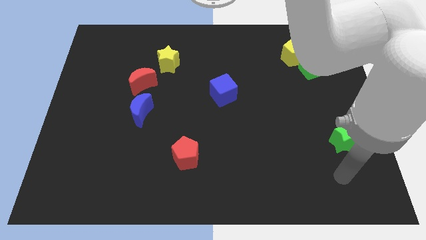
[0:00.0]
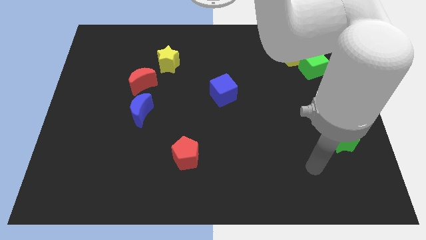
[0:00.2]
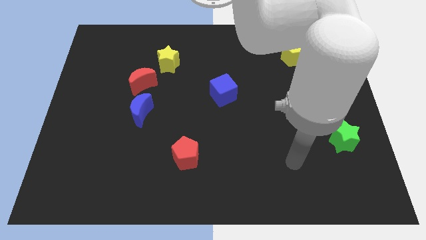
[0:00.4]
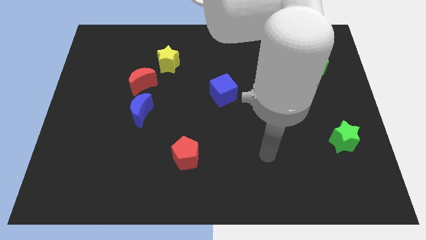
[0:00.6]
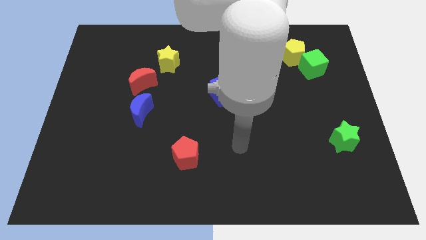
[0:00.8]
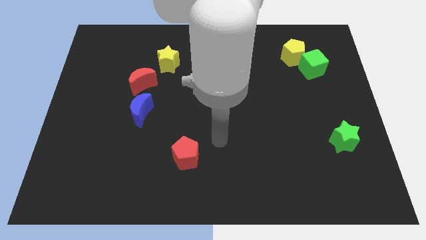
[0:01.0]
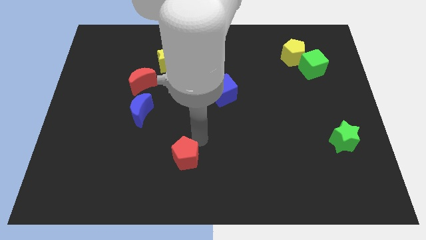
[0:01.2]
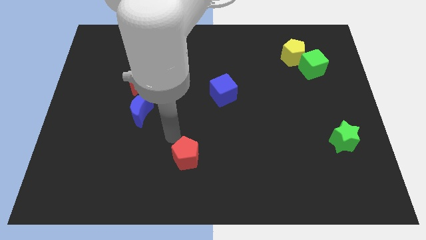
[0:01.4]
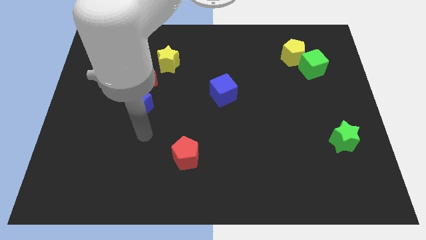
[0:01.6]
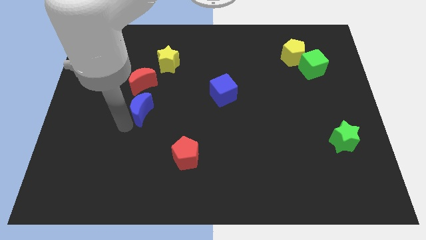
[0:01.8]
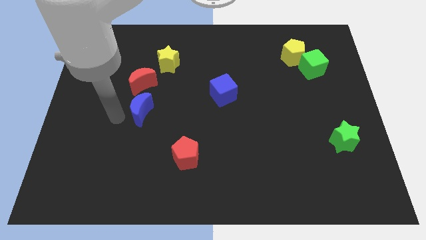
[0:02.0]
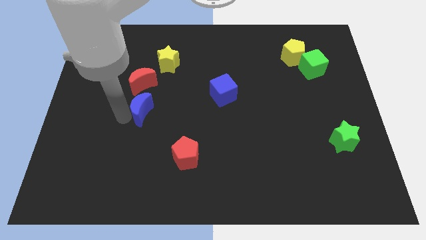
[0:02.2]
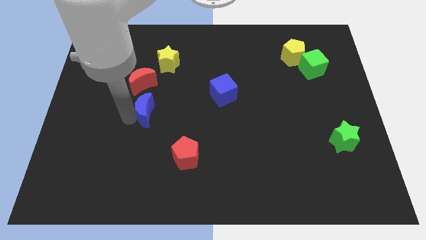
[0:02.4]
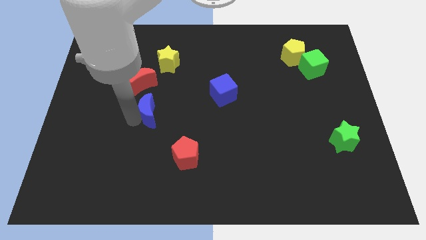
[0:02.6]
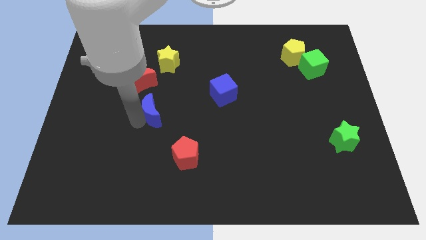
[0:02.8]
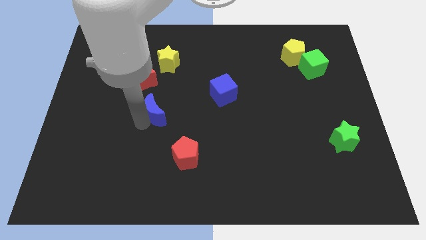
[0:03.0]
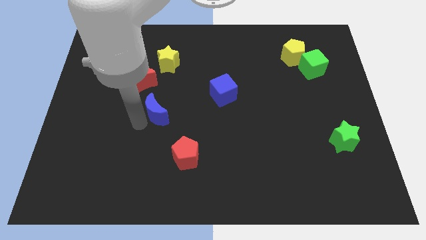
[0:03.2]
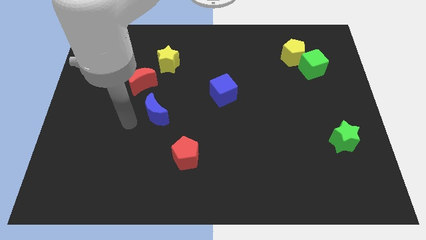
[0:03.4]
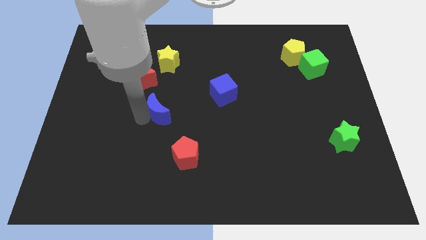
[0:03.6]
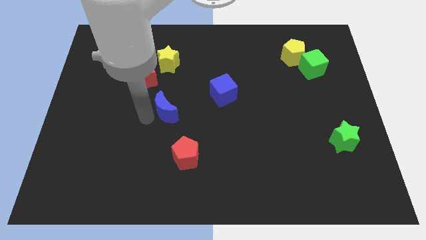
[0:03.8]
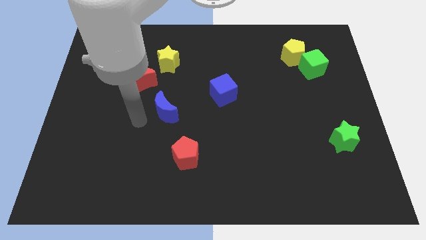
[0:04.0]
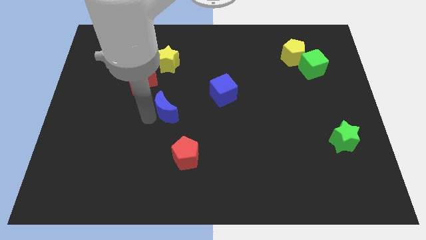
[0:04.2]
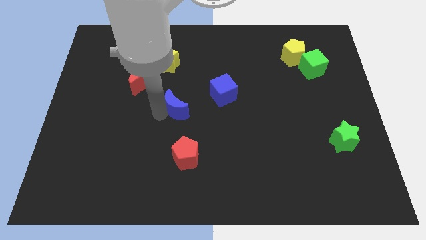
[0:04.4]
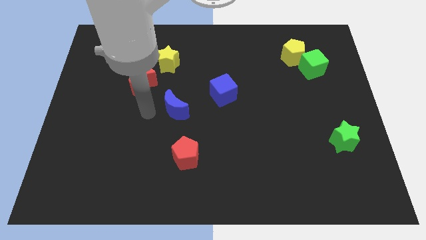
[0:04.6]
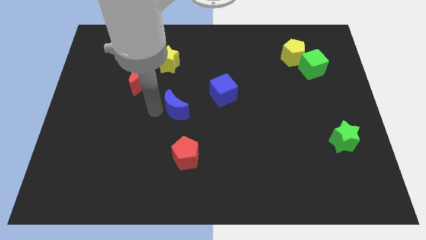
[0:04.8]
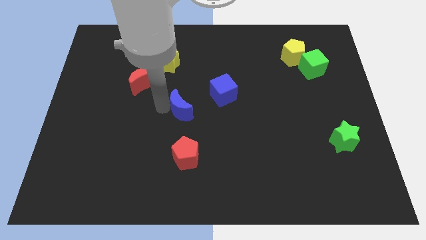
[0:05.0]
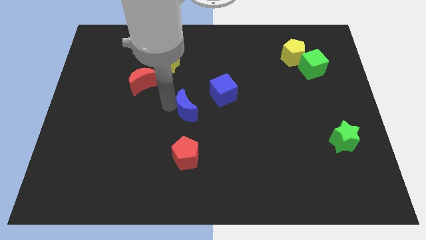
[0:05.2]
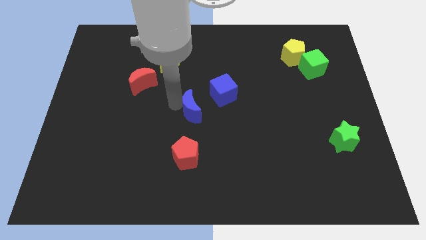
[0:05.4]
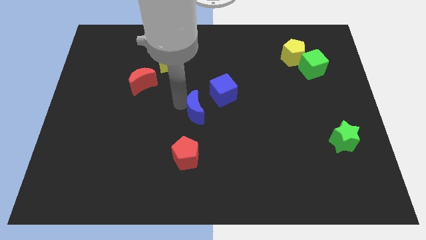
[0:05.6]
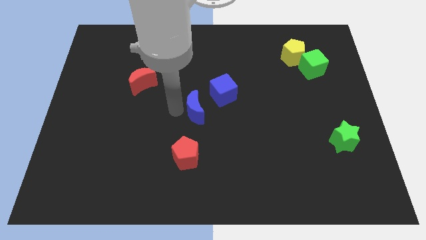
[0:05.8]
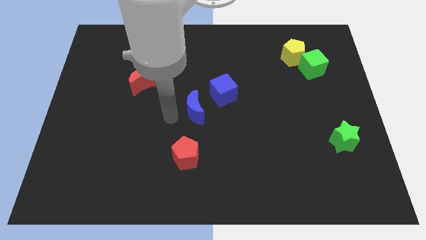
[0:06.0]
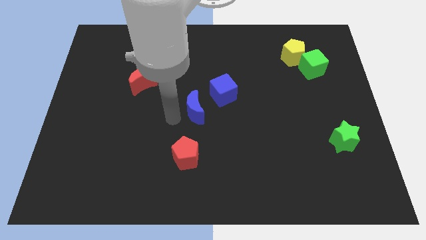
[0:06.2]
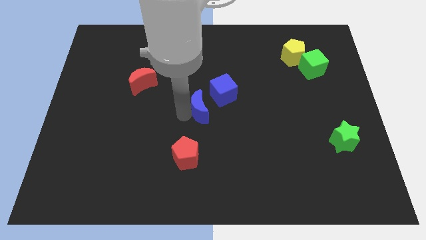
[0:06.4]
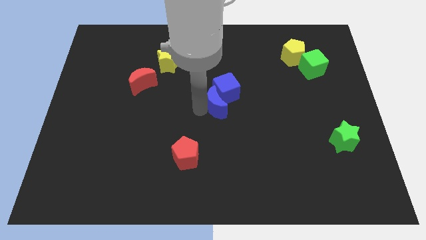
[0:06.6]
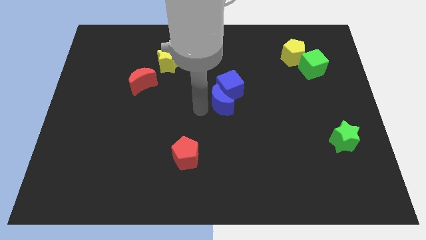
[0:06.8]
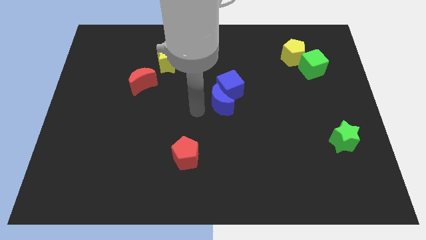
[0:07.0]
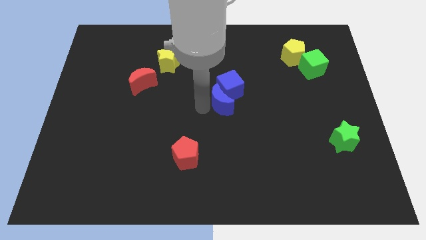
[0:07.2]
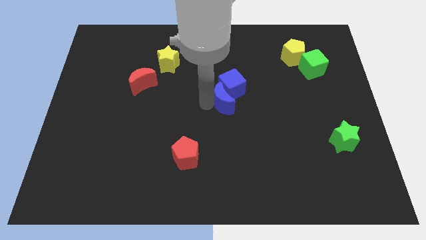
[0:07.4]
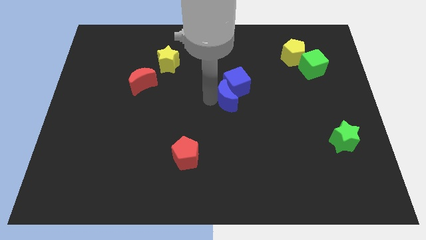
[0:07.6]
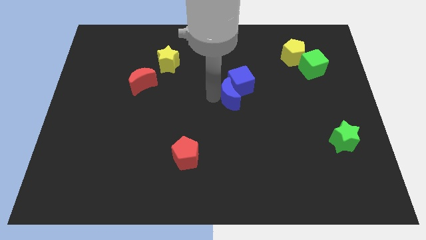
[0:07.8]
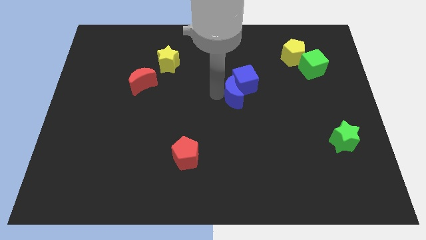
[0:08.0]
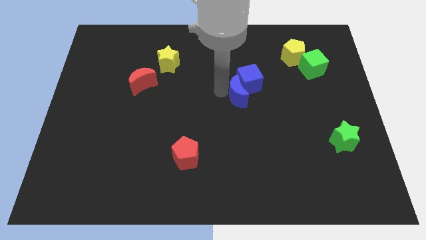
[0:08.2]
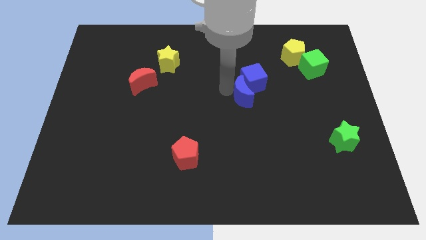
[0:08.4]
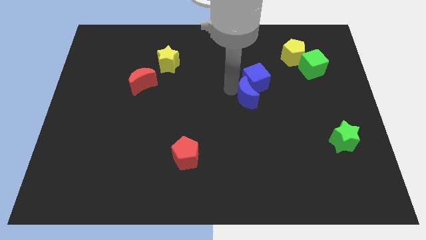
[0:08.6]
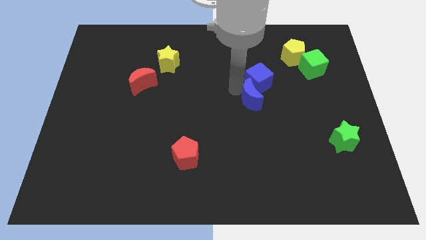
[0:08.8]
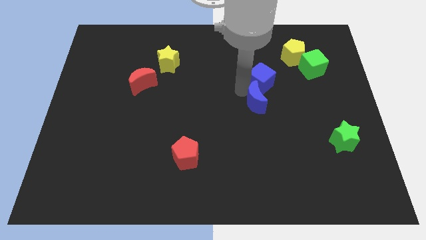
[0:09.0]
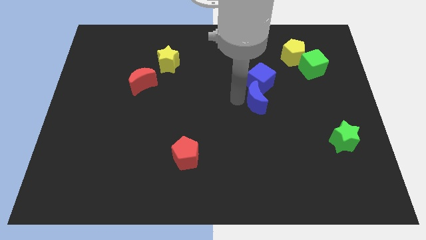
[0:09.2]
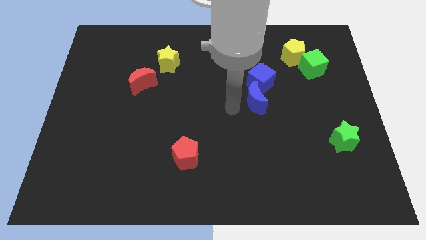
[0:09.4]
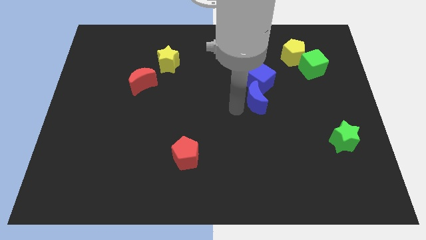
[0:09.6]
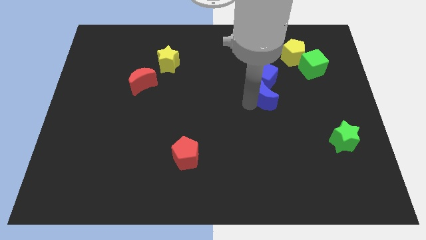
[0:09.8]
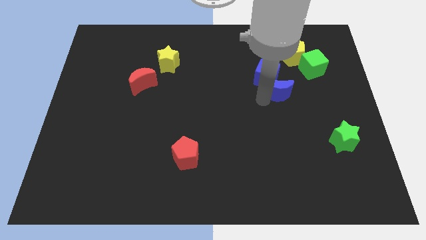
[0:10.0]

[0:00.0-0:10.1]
put the blue moon diagonally down and to the left of the green cube

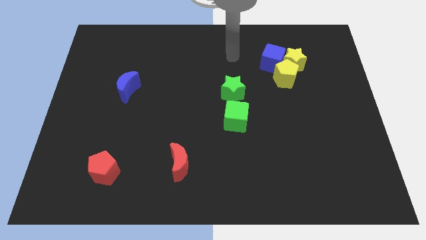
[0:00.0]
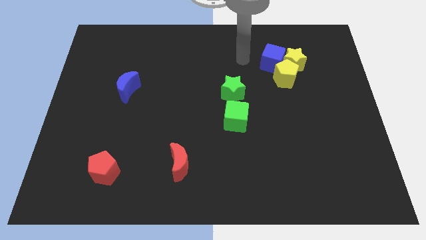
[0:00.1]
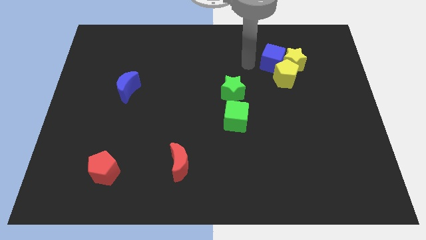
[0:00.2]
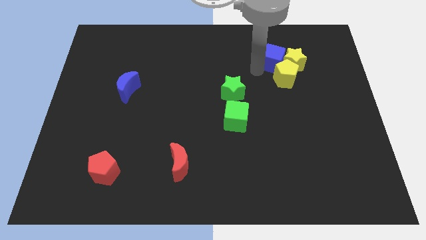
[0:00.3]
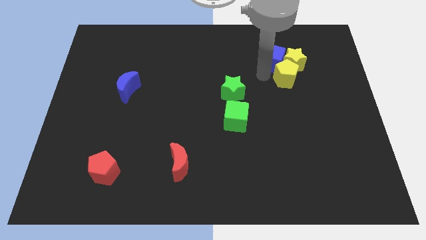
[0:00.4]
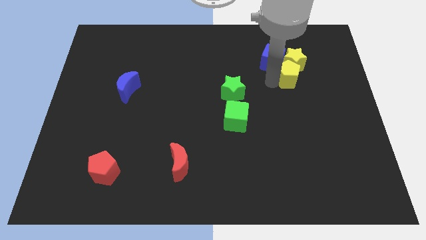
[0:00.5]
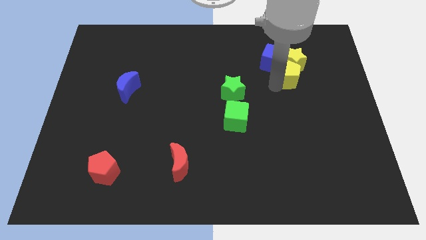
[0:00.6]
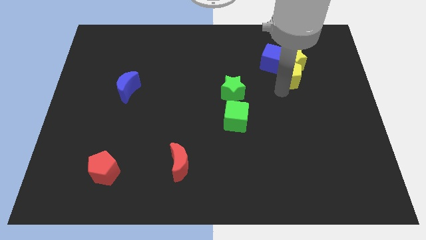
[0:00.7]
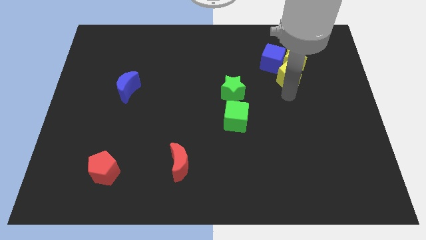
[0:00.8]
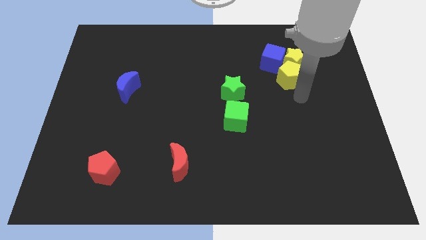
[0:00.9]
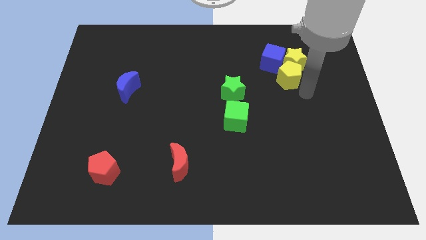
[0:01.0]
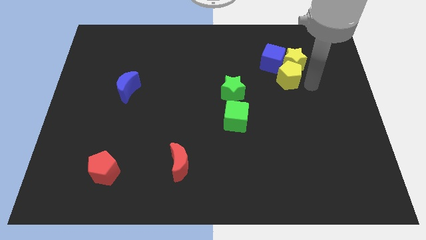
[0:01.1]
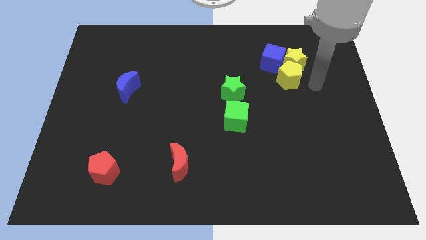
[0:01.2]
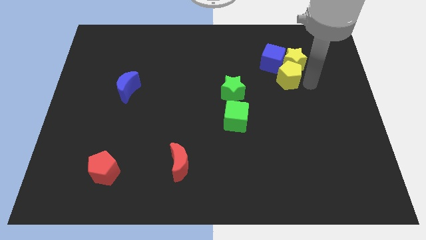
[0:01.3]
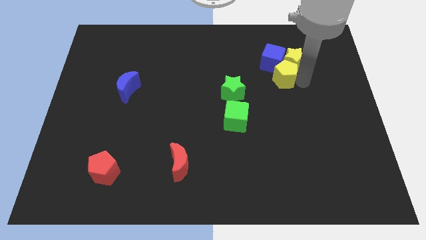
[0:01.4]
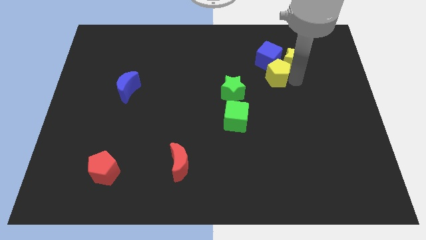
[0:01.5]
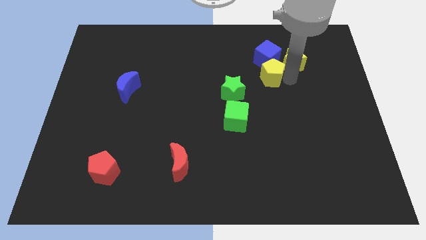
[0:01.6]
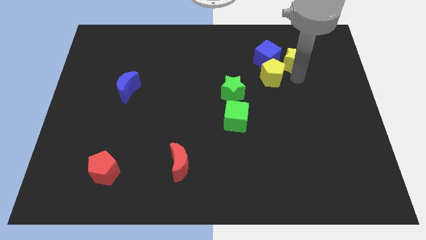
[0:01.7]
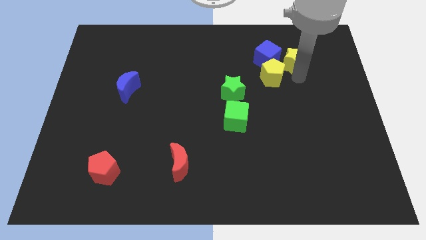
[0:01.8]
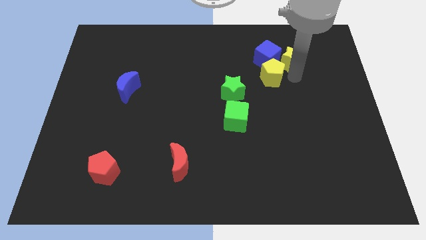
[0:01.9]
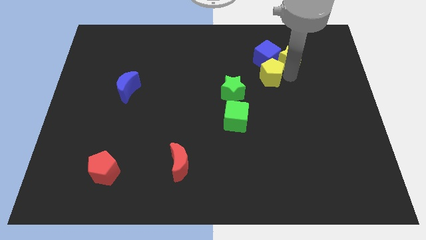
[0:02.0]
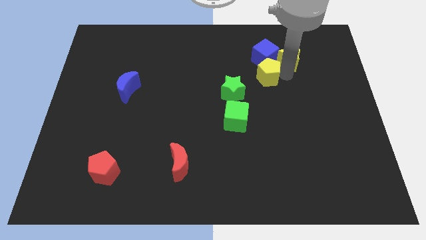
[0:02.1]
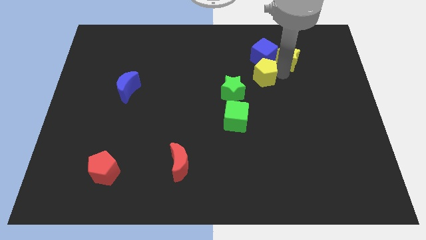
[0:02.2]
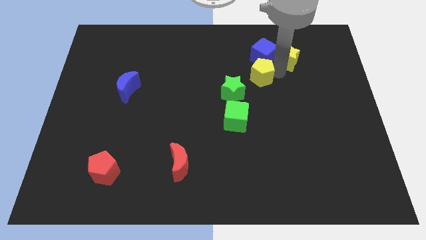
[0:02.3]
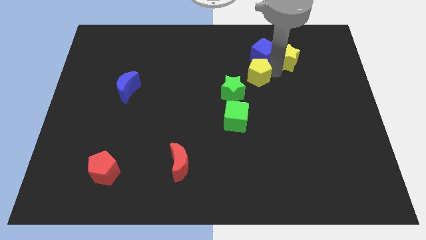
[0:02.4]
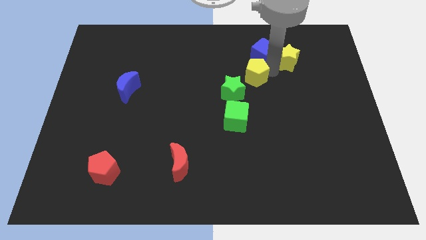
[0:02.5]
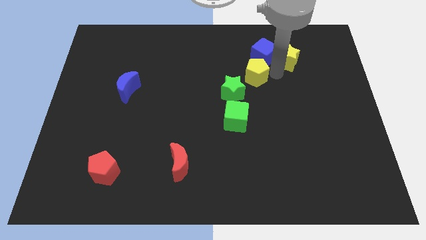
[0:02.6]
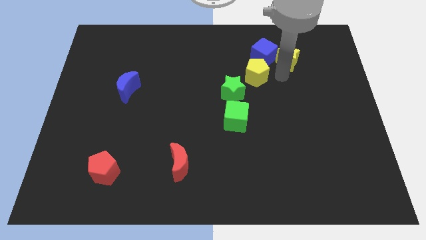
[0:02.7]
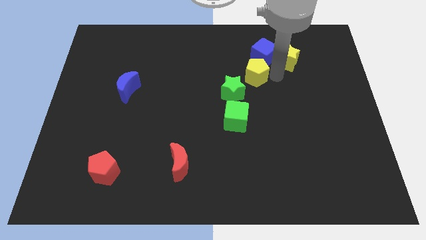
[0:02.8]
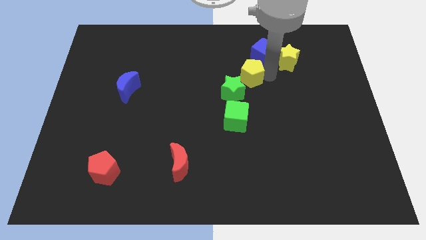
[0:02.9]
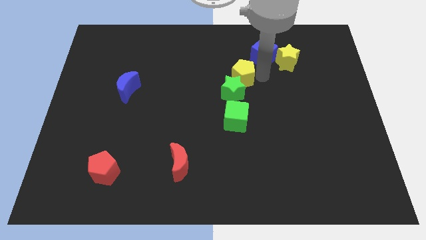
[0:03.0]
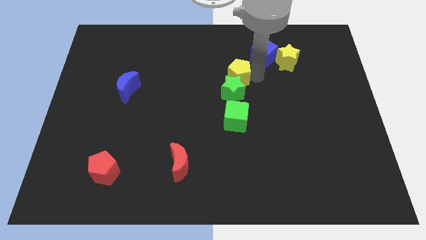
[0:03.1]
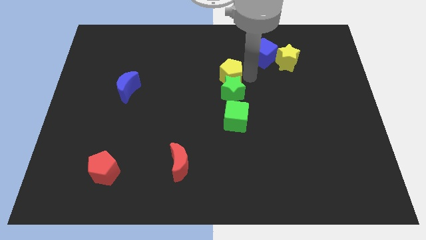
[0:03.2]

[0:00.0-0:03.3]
slide the yellow pentagon diagonally up and to the left of the green star
